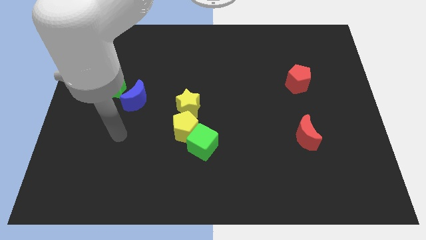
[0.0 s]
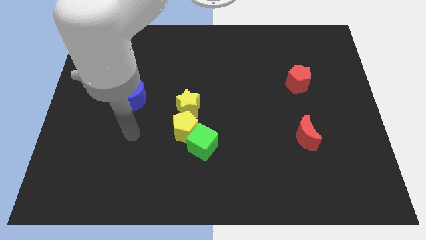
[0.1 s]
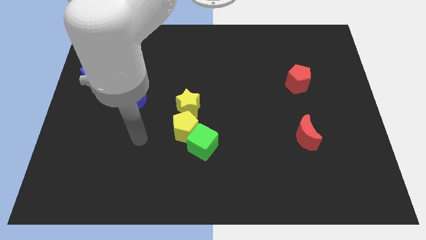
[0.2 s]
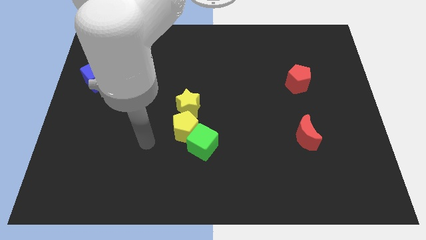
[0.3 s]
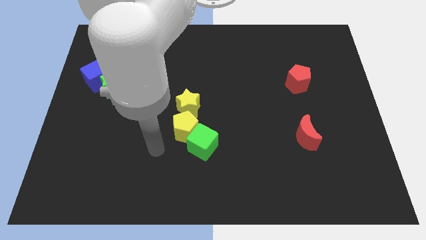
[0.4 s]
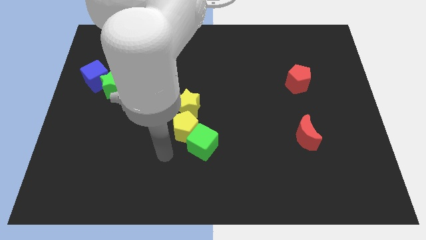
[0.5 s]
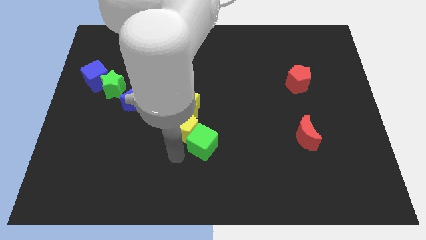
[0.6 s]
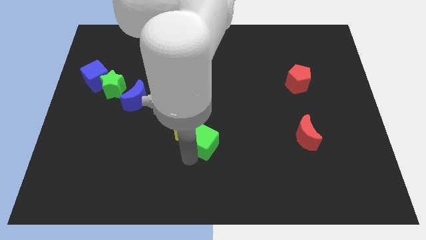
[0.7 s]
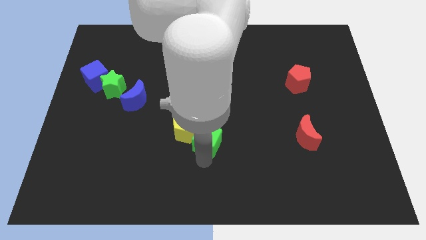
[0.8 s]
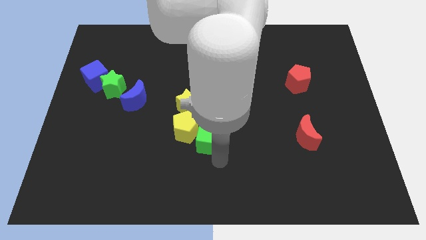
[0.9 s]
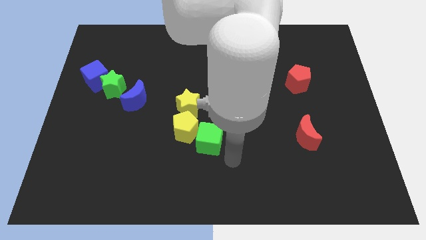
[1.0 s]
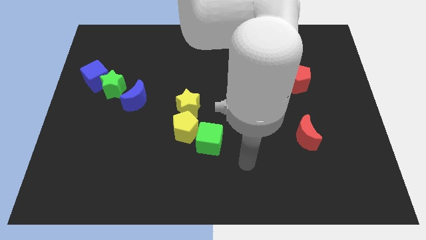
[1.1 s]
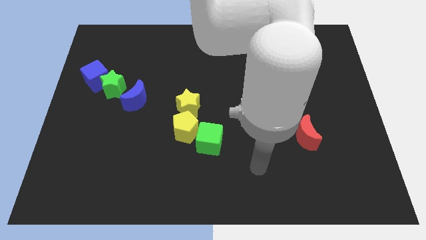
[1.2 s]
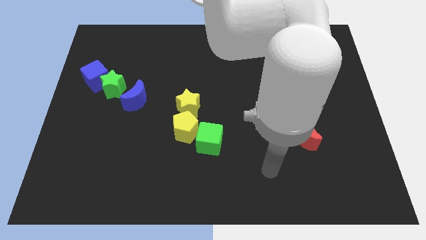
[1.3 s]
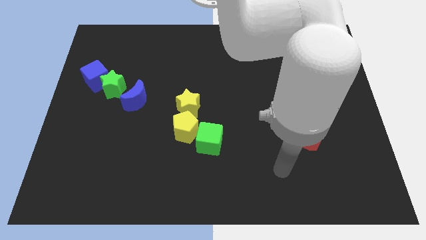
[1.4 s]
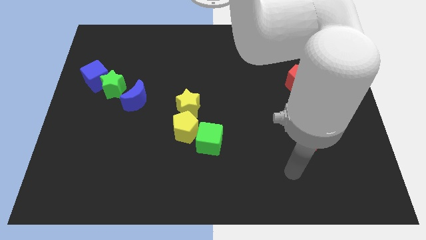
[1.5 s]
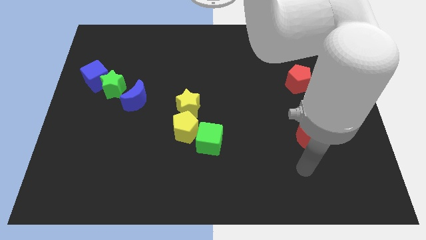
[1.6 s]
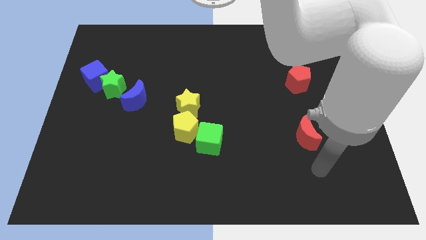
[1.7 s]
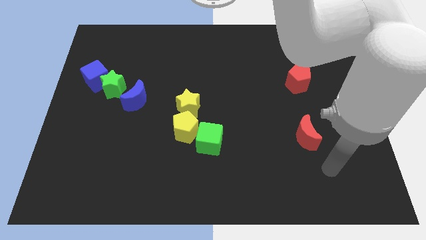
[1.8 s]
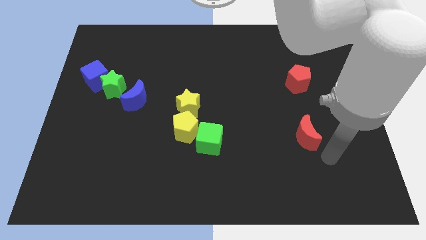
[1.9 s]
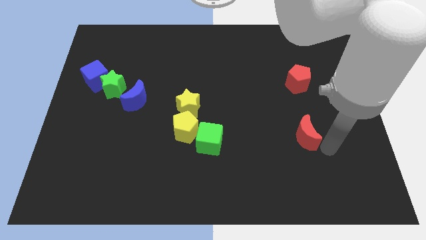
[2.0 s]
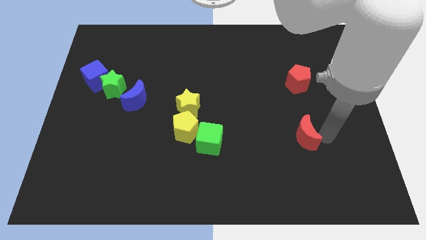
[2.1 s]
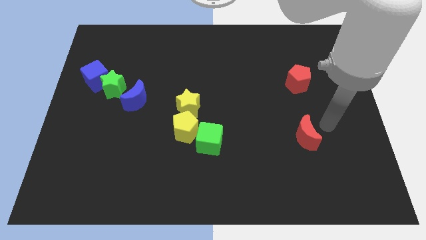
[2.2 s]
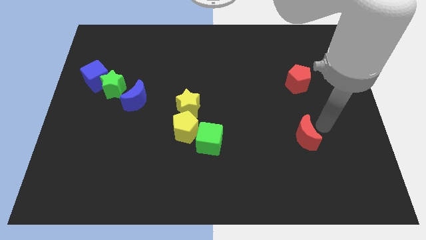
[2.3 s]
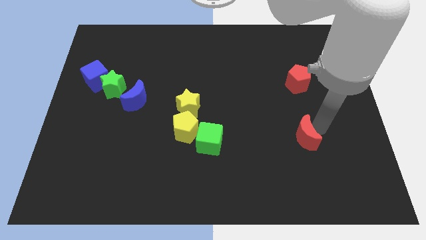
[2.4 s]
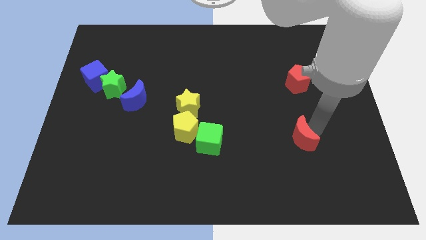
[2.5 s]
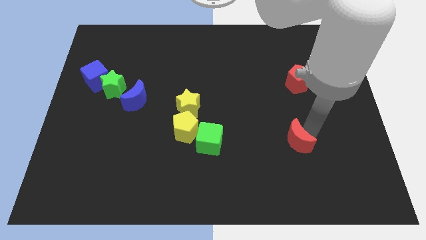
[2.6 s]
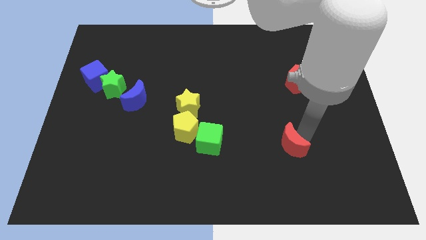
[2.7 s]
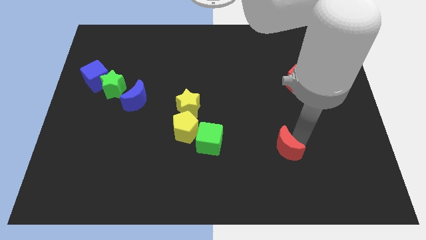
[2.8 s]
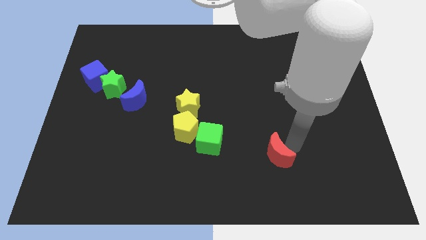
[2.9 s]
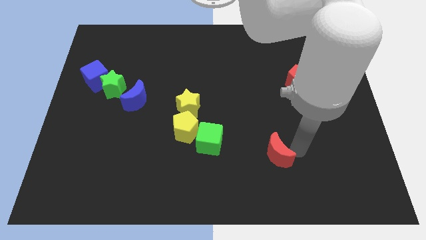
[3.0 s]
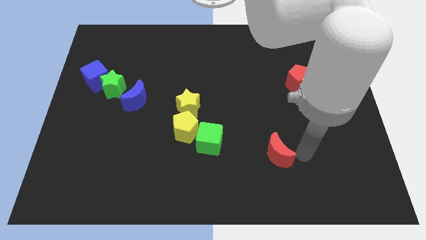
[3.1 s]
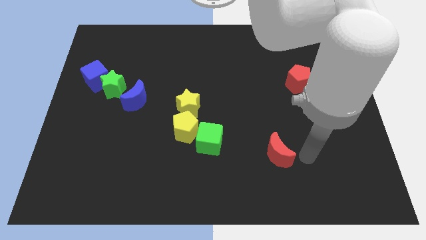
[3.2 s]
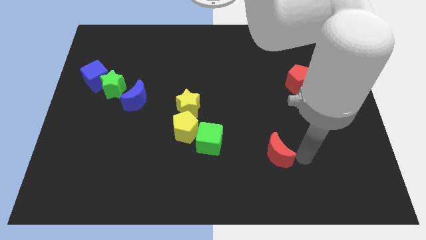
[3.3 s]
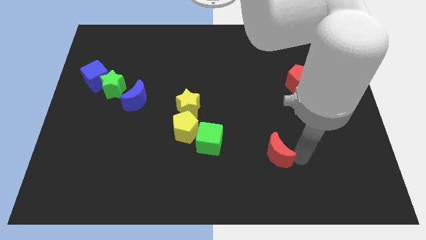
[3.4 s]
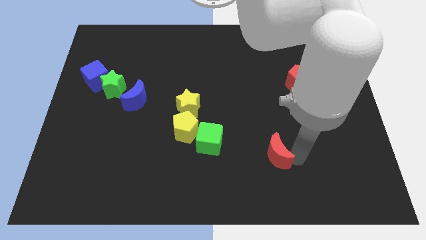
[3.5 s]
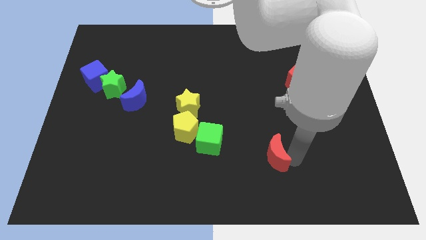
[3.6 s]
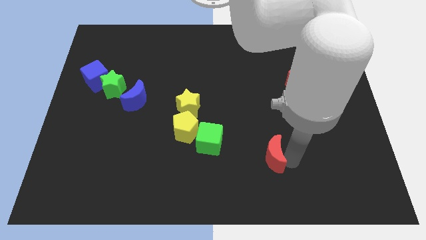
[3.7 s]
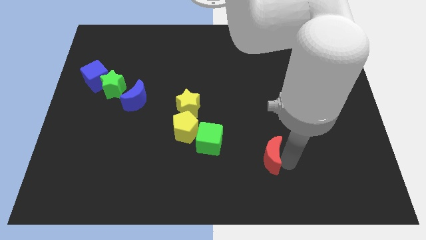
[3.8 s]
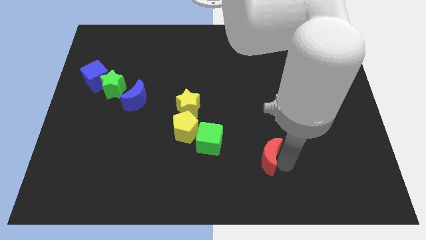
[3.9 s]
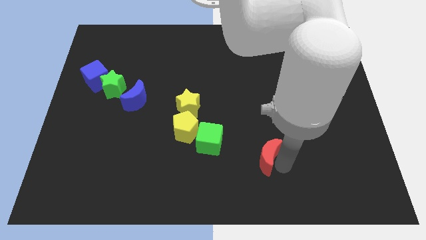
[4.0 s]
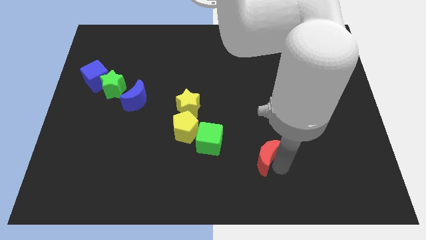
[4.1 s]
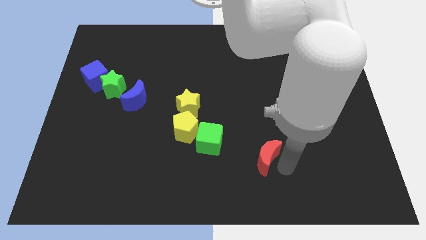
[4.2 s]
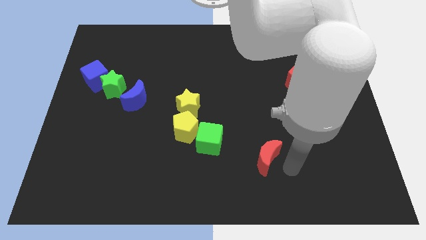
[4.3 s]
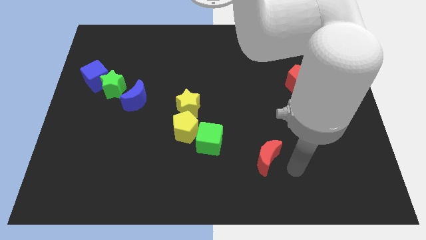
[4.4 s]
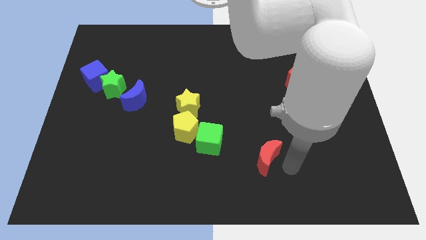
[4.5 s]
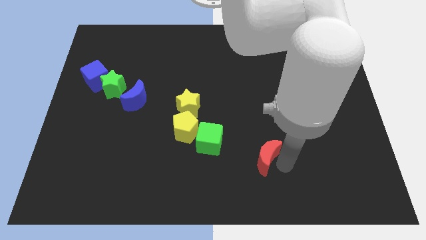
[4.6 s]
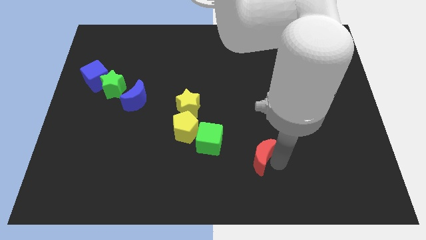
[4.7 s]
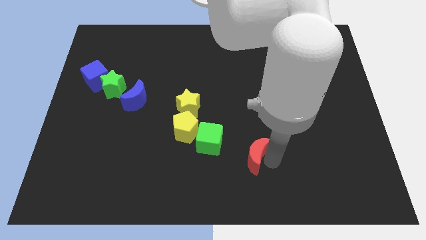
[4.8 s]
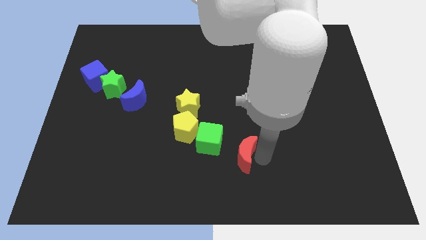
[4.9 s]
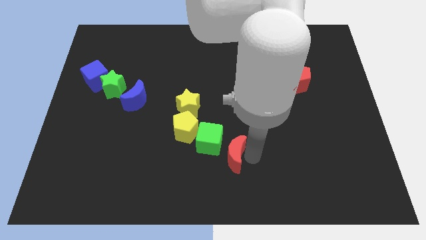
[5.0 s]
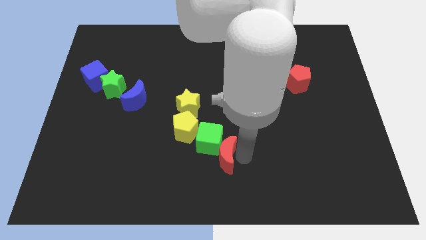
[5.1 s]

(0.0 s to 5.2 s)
move the red moon diagonally down and to the right of the yellow pentagon

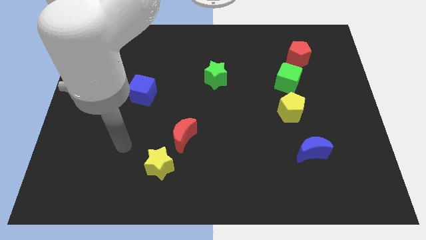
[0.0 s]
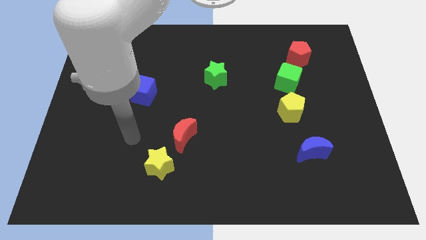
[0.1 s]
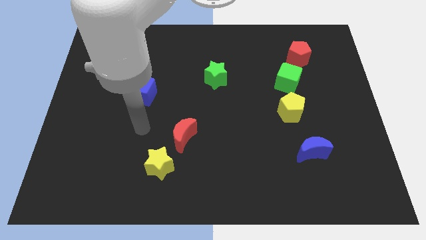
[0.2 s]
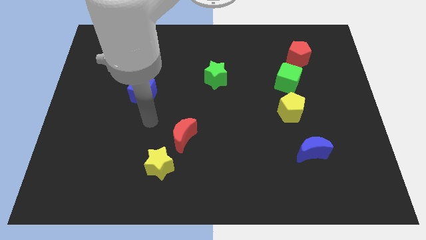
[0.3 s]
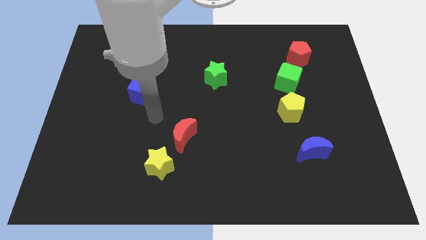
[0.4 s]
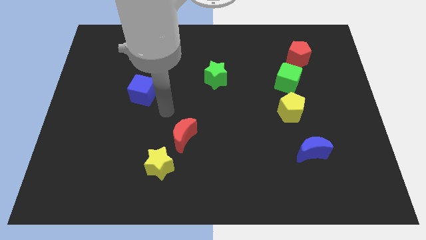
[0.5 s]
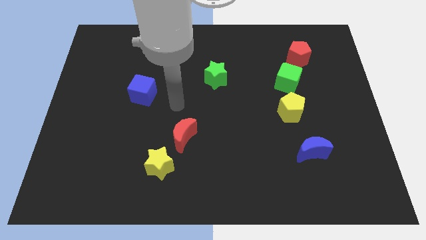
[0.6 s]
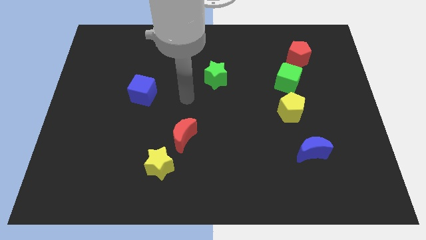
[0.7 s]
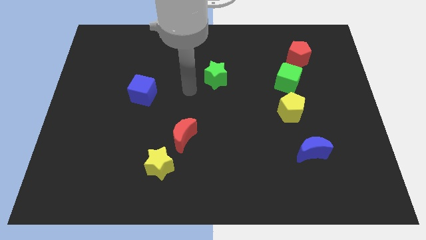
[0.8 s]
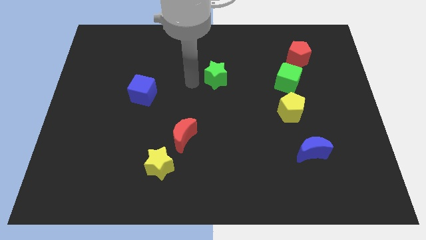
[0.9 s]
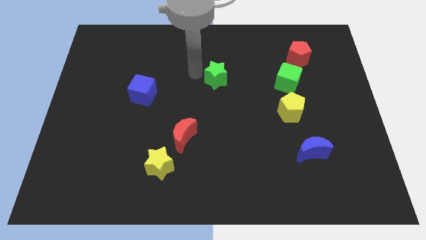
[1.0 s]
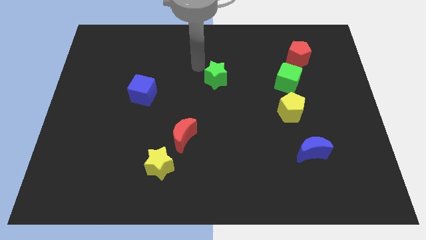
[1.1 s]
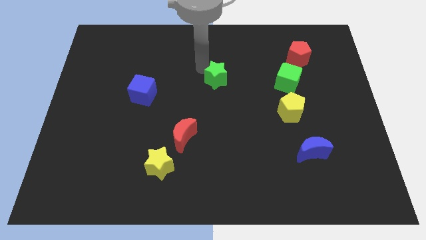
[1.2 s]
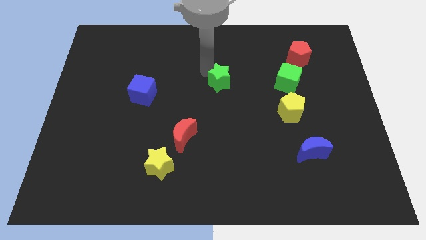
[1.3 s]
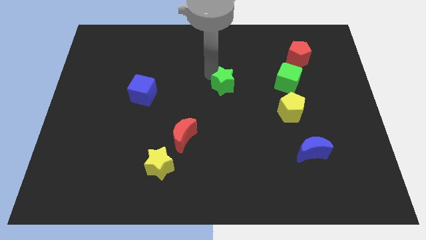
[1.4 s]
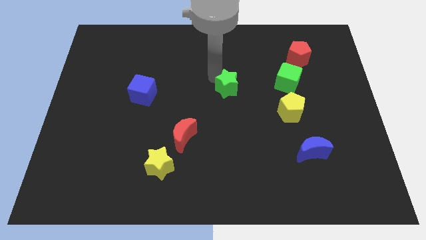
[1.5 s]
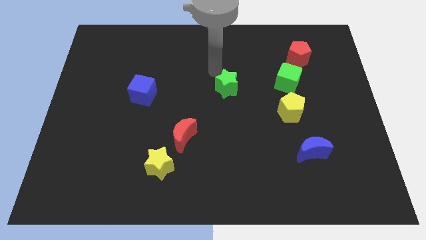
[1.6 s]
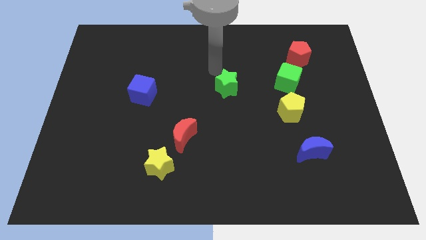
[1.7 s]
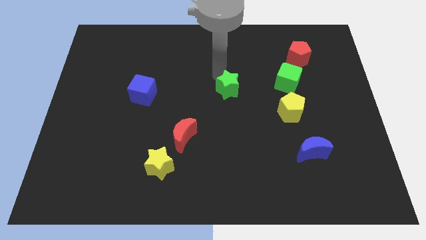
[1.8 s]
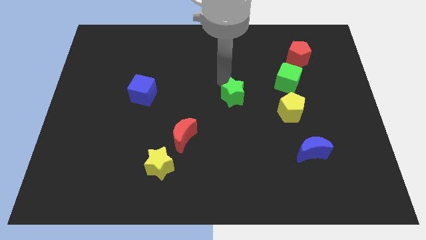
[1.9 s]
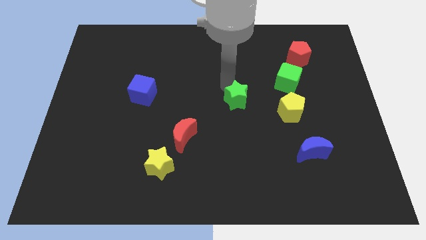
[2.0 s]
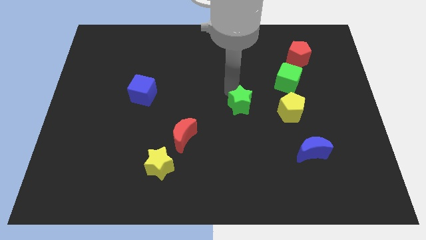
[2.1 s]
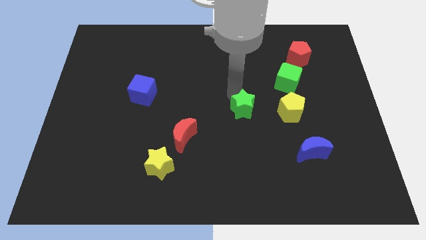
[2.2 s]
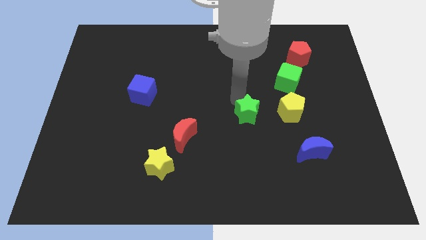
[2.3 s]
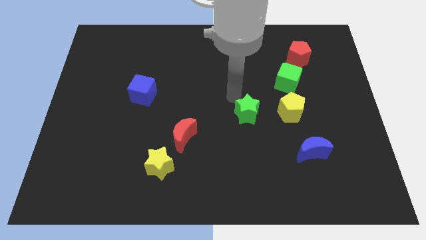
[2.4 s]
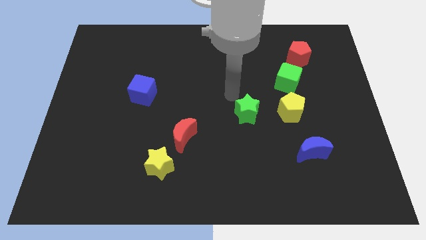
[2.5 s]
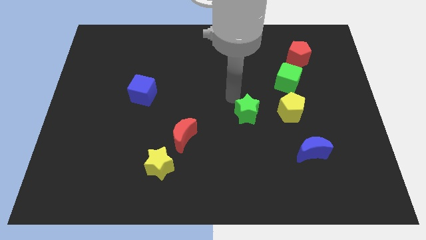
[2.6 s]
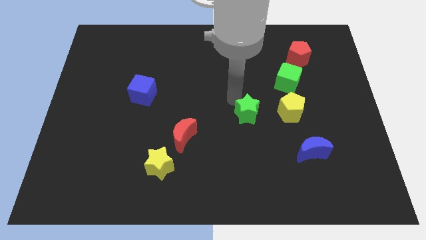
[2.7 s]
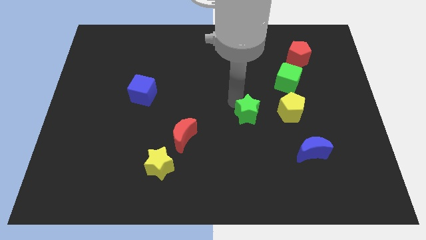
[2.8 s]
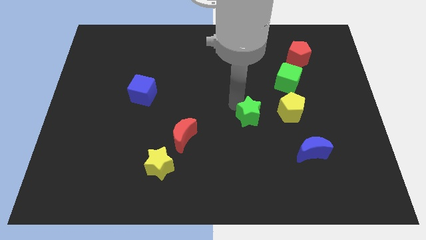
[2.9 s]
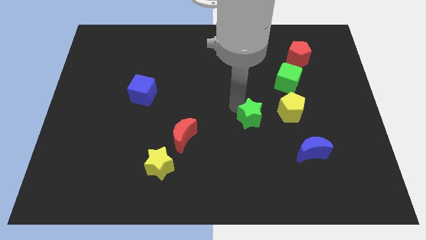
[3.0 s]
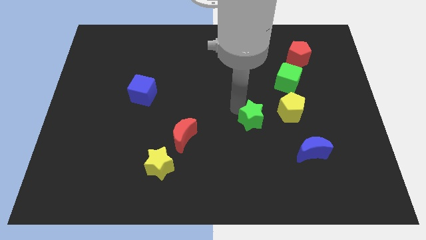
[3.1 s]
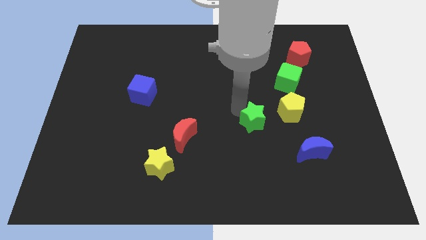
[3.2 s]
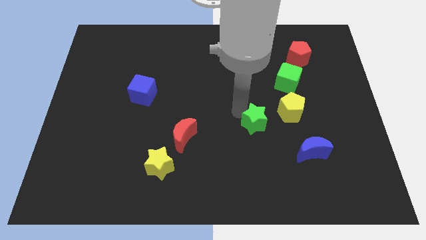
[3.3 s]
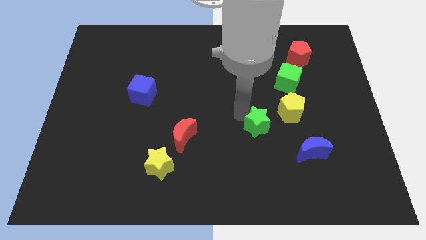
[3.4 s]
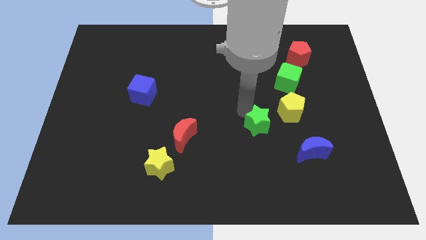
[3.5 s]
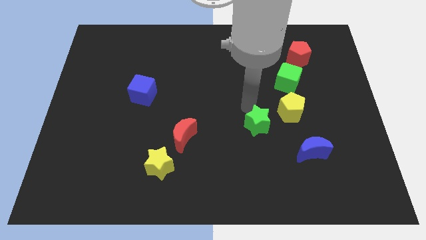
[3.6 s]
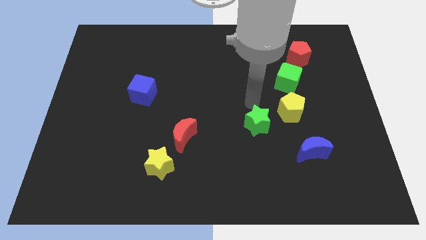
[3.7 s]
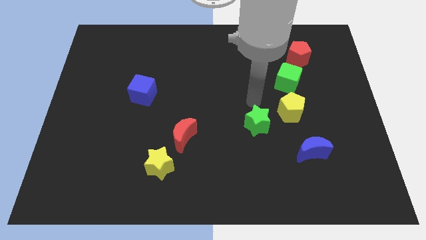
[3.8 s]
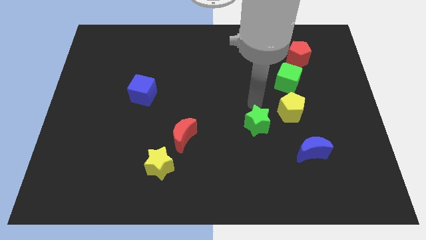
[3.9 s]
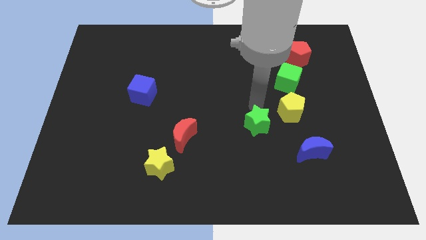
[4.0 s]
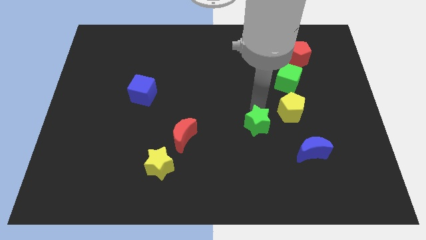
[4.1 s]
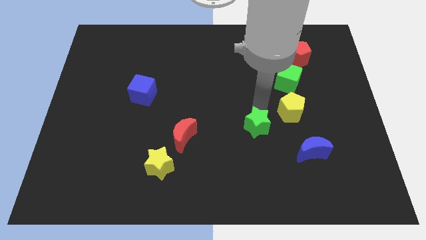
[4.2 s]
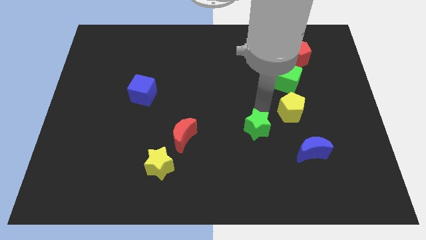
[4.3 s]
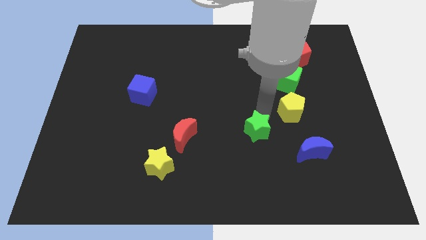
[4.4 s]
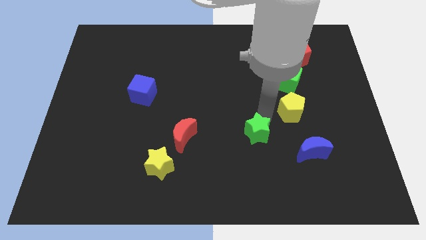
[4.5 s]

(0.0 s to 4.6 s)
slide the green star left of the blue moon
